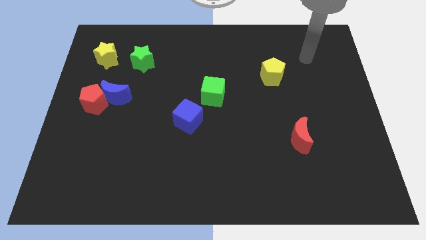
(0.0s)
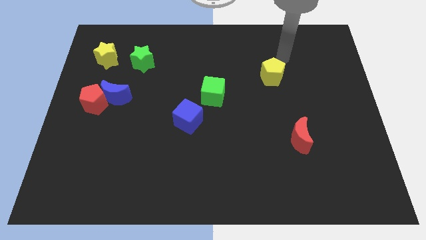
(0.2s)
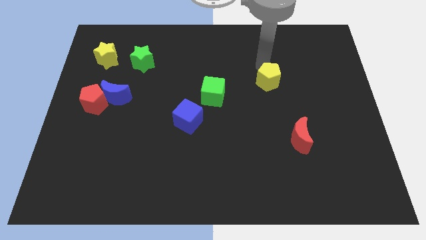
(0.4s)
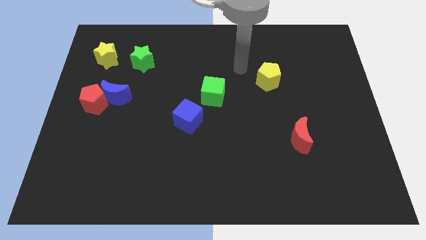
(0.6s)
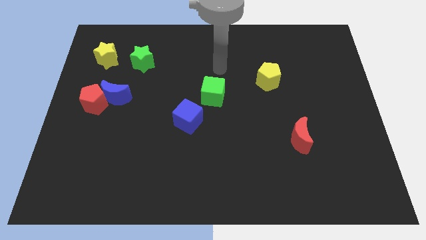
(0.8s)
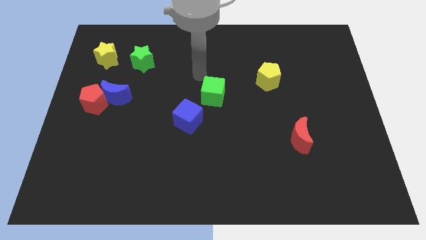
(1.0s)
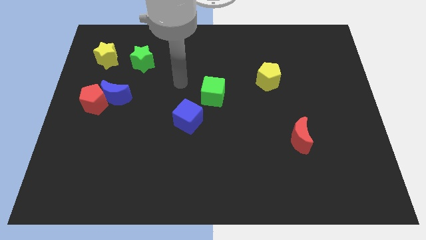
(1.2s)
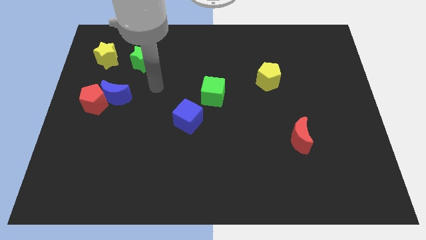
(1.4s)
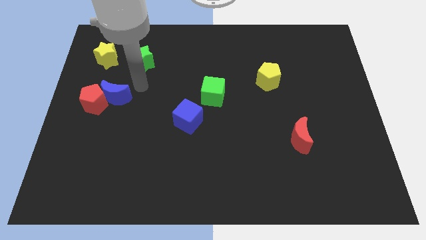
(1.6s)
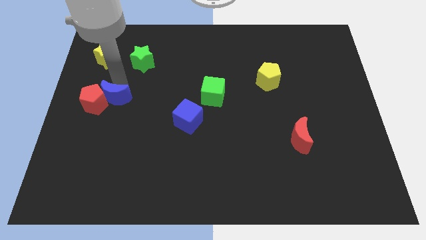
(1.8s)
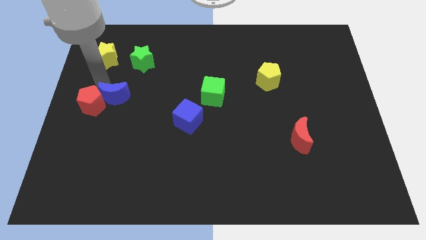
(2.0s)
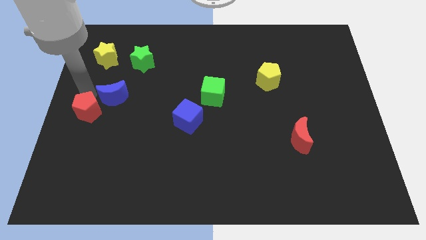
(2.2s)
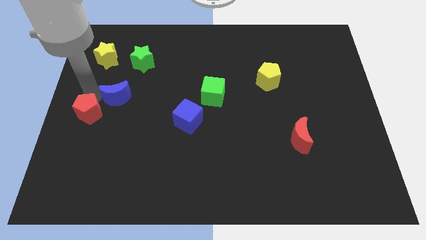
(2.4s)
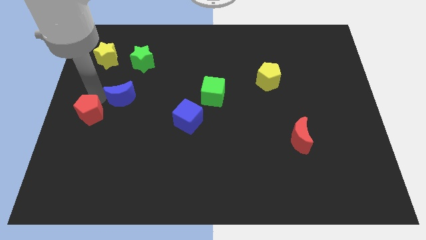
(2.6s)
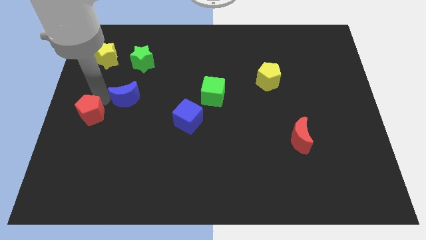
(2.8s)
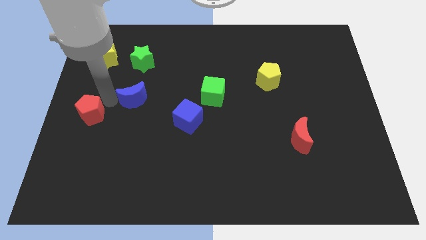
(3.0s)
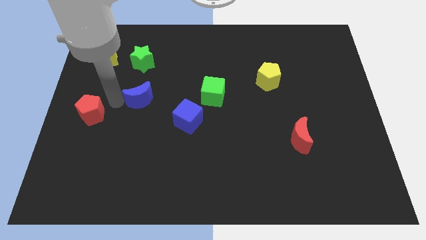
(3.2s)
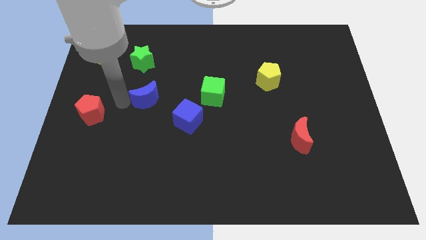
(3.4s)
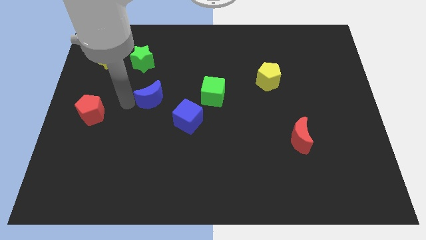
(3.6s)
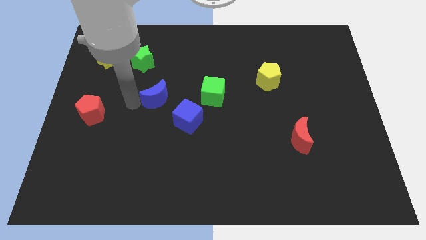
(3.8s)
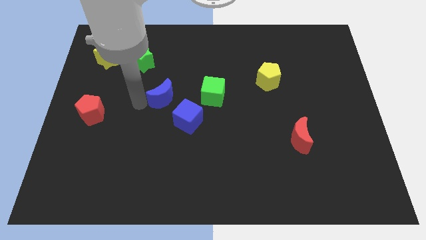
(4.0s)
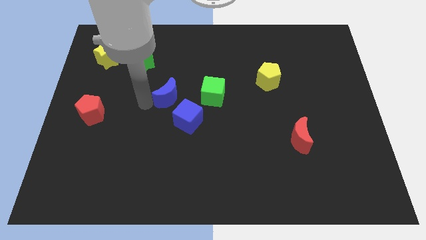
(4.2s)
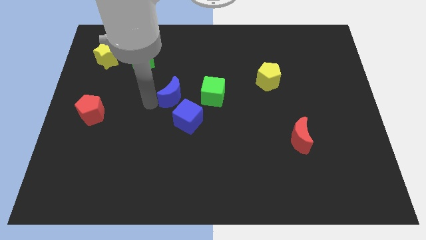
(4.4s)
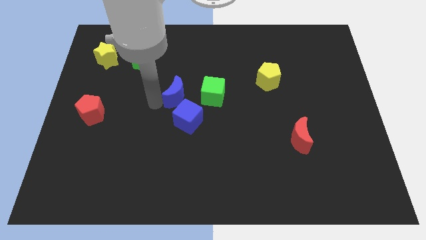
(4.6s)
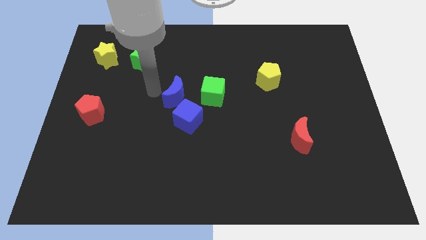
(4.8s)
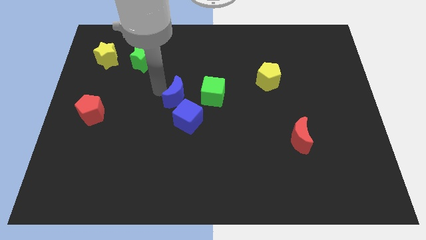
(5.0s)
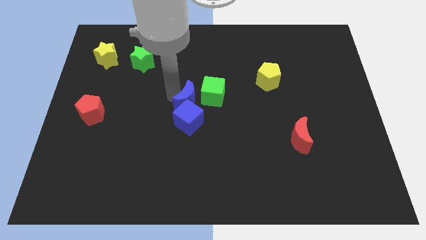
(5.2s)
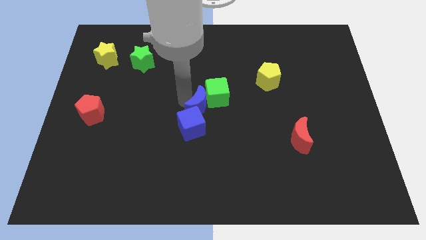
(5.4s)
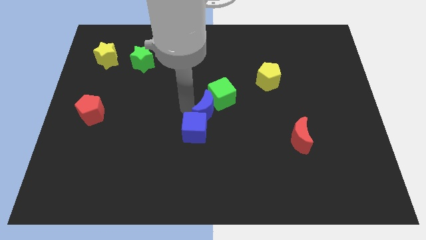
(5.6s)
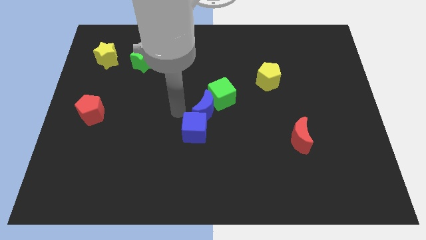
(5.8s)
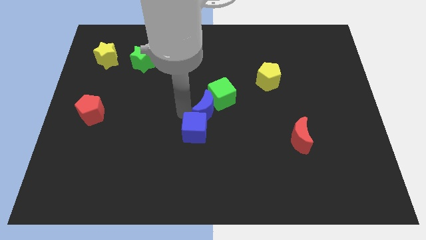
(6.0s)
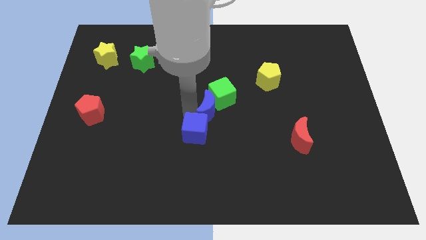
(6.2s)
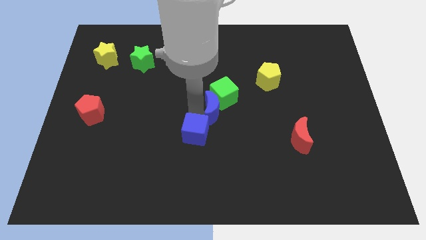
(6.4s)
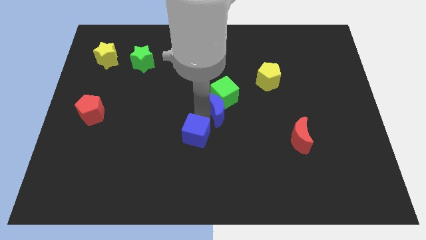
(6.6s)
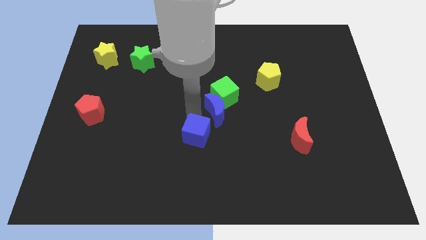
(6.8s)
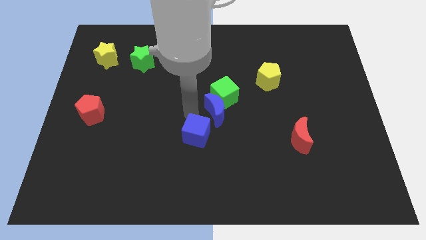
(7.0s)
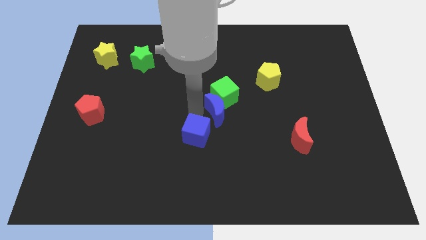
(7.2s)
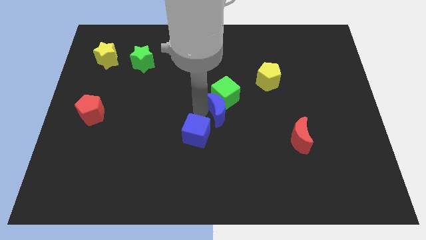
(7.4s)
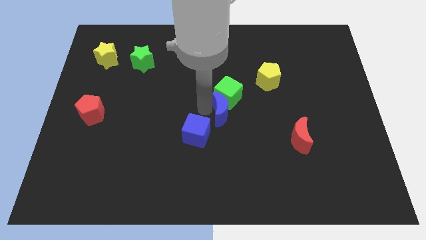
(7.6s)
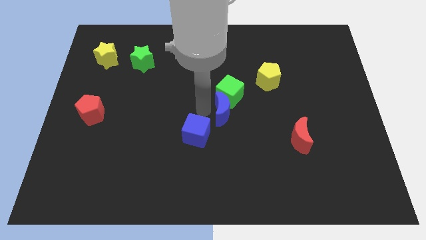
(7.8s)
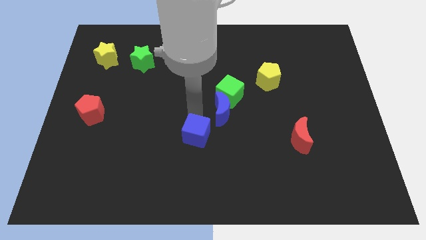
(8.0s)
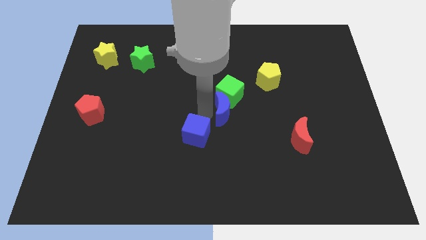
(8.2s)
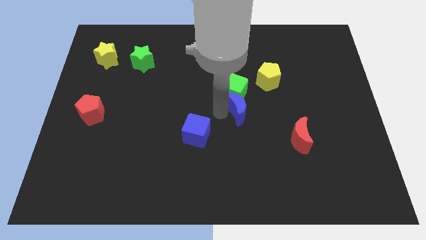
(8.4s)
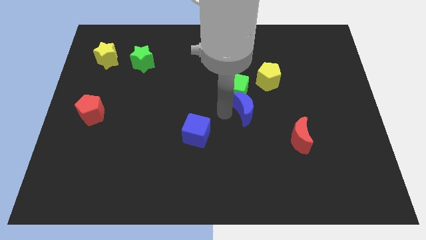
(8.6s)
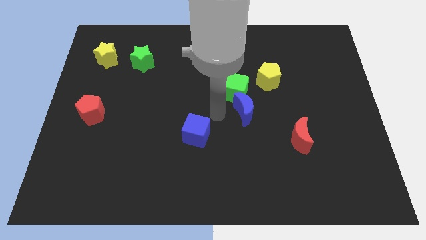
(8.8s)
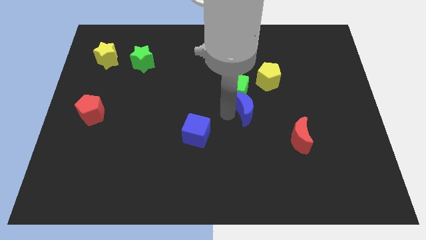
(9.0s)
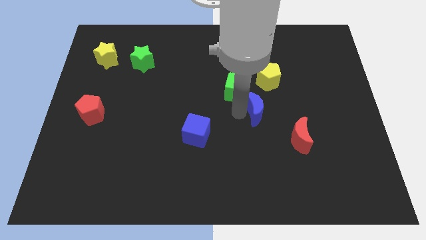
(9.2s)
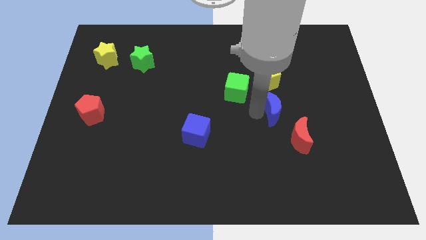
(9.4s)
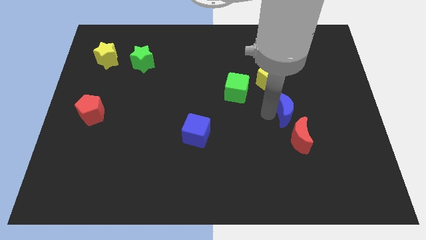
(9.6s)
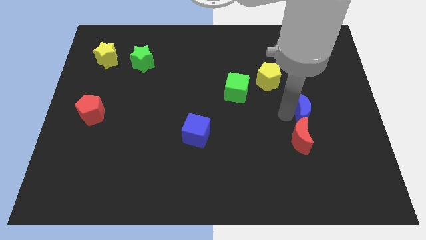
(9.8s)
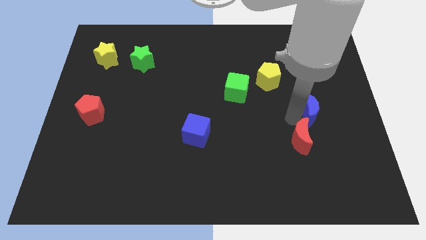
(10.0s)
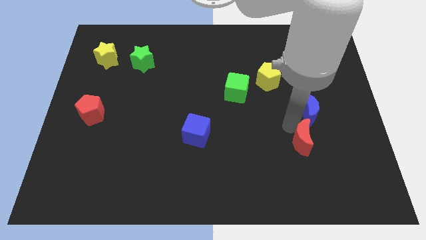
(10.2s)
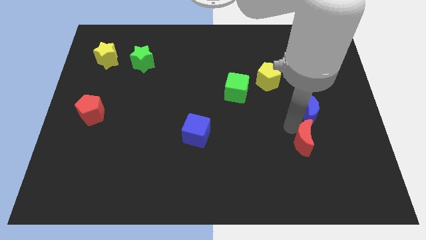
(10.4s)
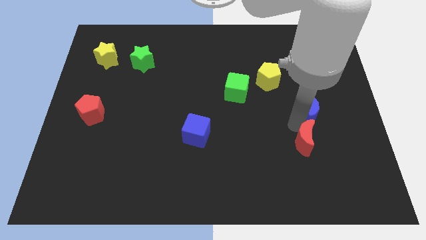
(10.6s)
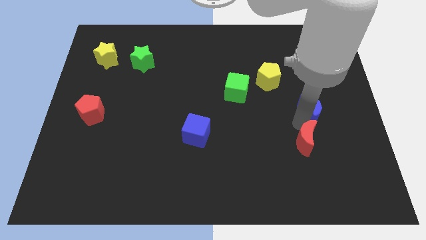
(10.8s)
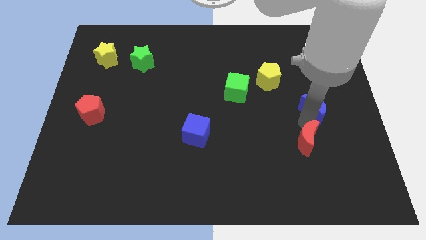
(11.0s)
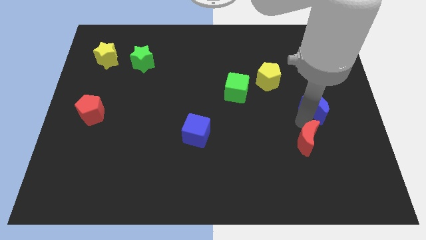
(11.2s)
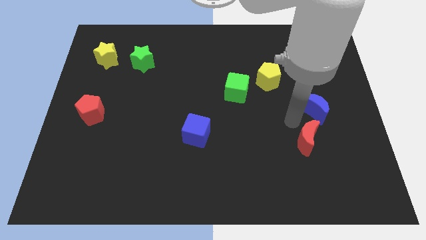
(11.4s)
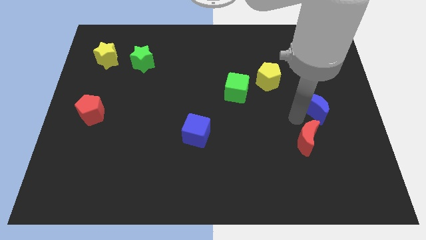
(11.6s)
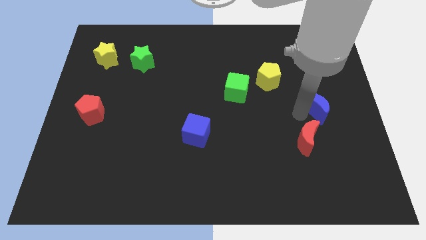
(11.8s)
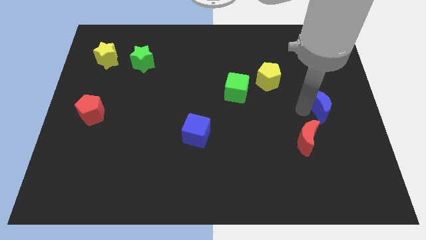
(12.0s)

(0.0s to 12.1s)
push the blue moon to the right side
